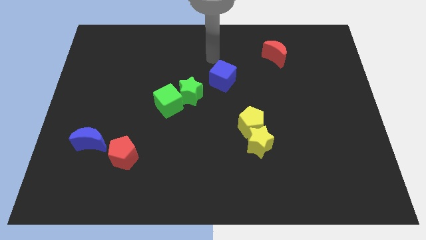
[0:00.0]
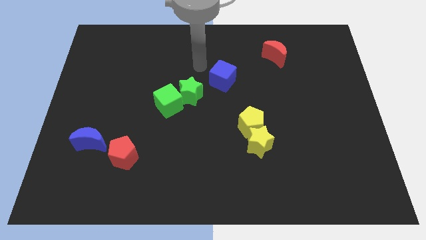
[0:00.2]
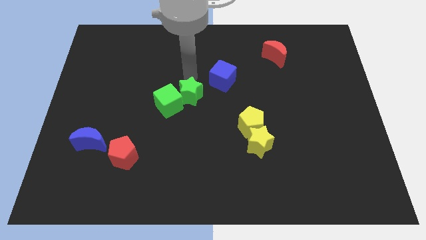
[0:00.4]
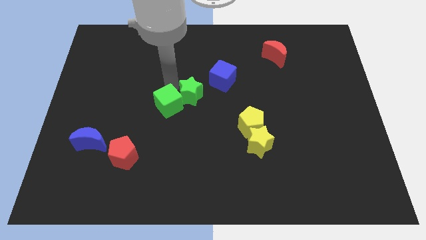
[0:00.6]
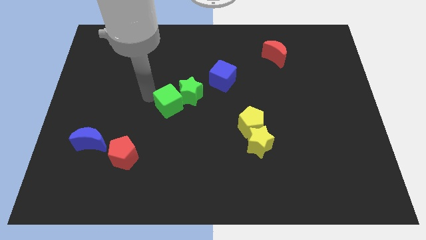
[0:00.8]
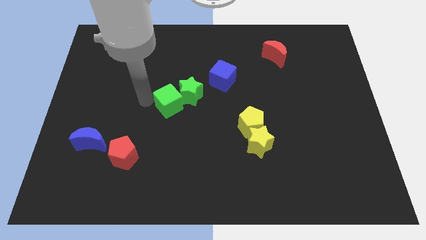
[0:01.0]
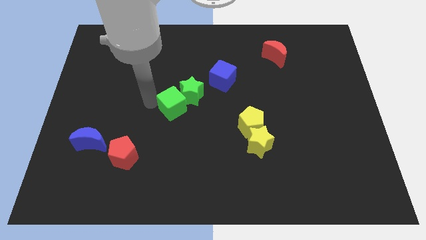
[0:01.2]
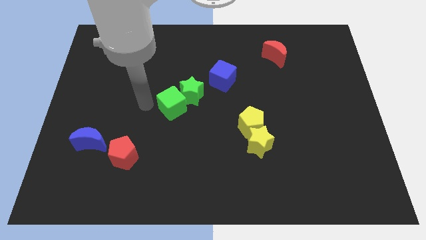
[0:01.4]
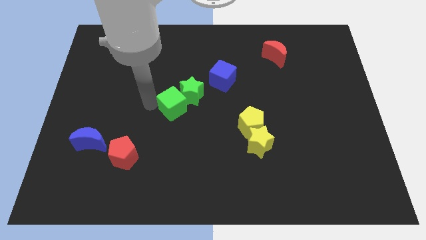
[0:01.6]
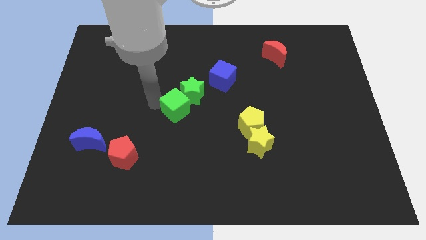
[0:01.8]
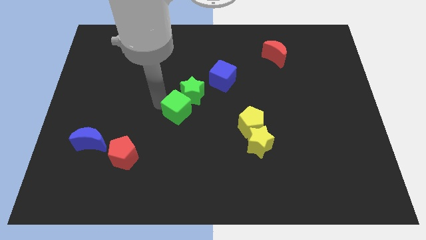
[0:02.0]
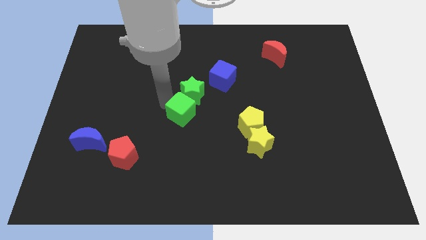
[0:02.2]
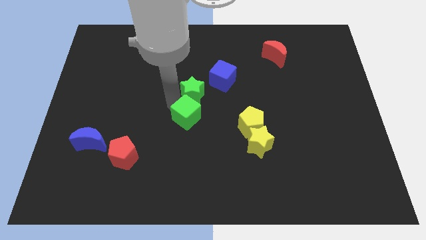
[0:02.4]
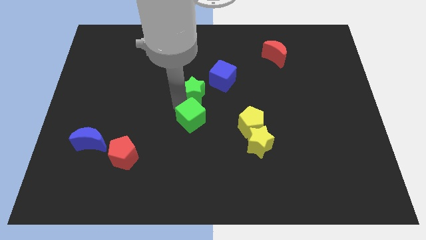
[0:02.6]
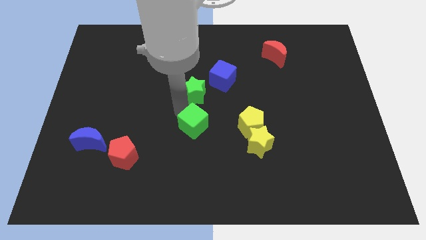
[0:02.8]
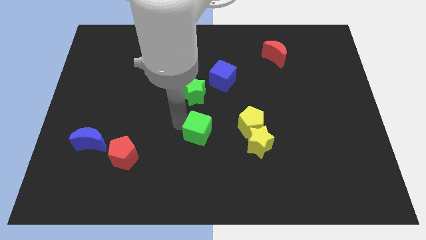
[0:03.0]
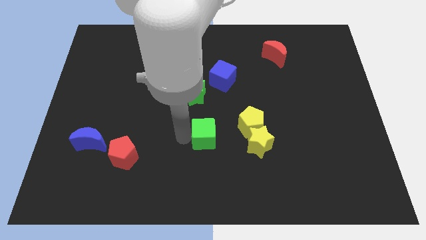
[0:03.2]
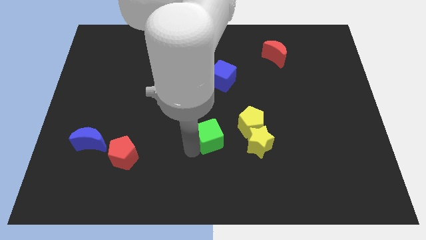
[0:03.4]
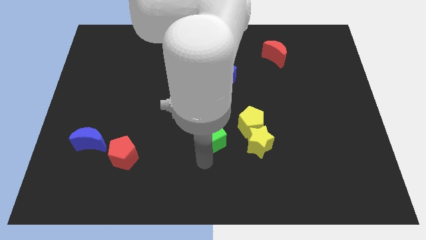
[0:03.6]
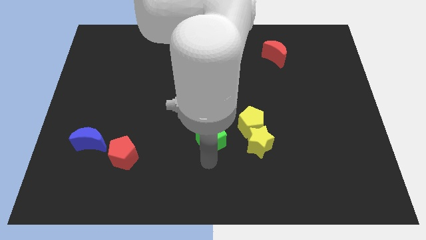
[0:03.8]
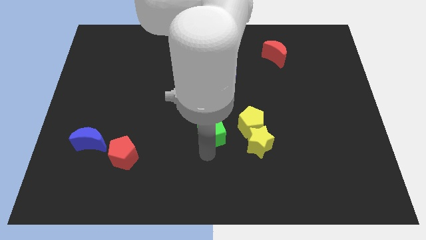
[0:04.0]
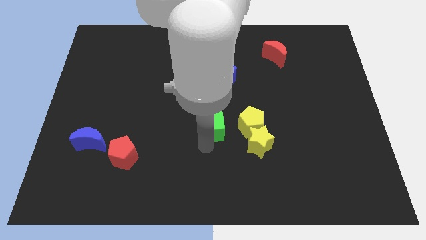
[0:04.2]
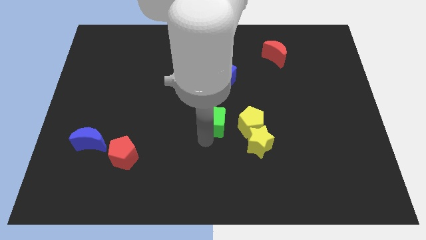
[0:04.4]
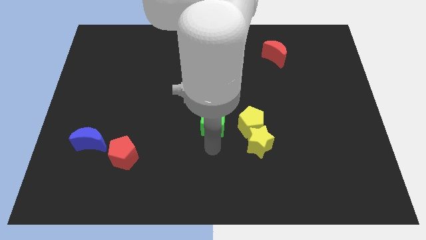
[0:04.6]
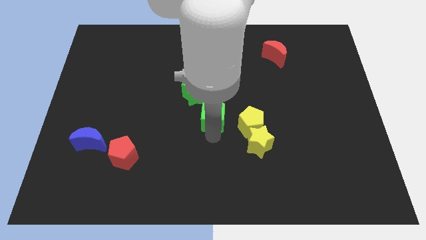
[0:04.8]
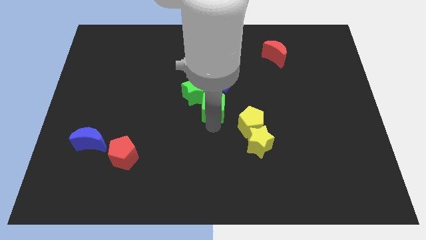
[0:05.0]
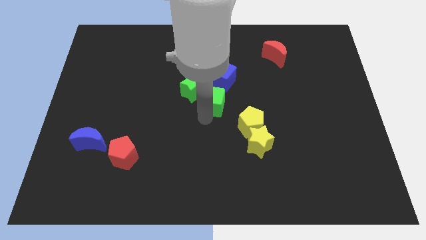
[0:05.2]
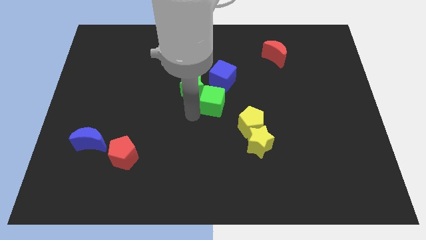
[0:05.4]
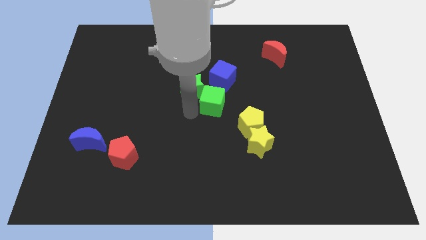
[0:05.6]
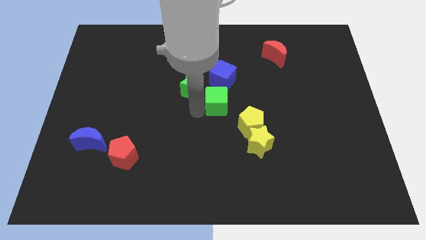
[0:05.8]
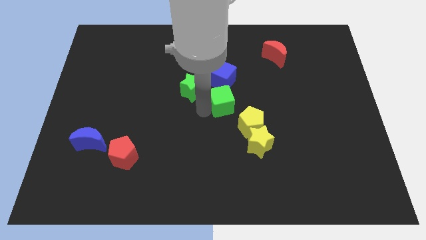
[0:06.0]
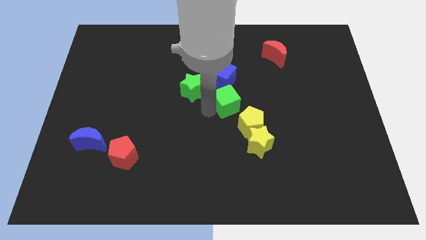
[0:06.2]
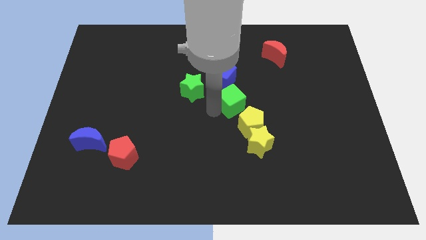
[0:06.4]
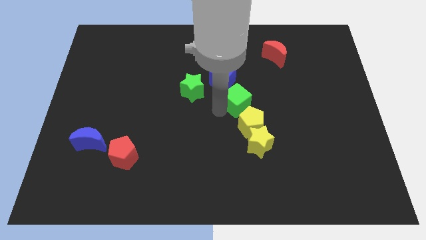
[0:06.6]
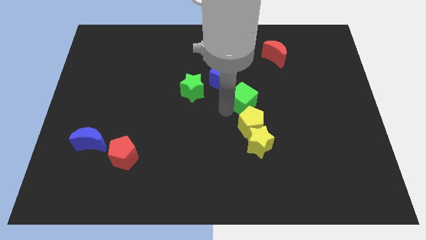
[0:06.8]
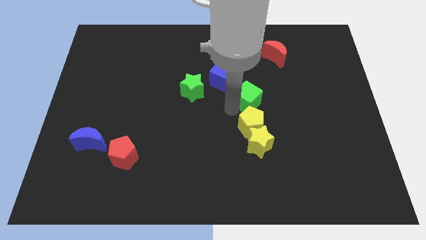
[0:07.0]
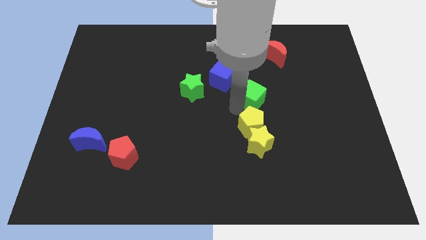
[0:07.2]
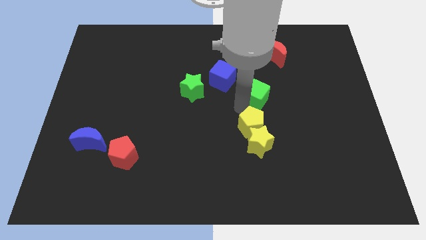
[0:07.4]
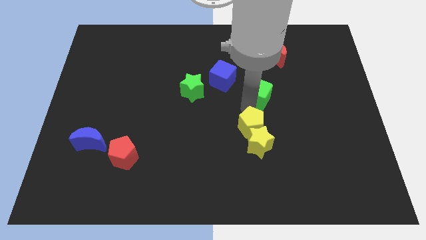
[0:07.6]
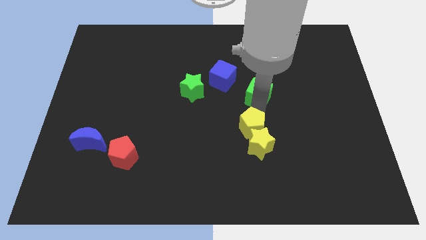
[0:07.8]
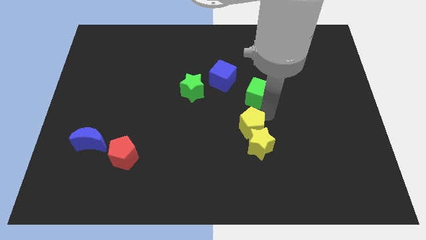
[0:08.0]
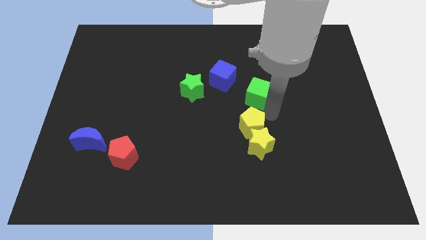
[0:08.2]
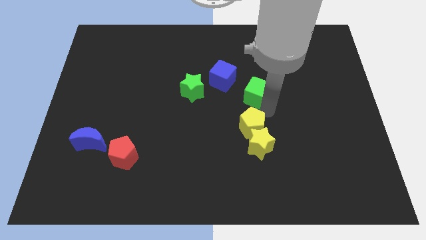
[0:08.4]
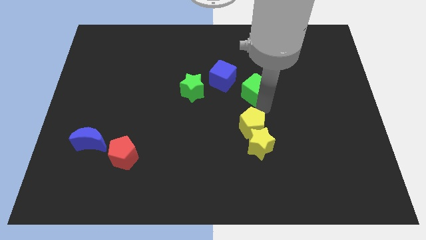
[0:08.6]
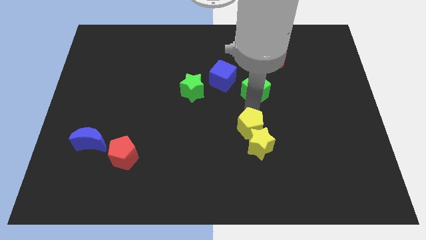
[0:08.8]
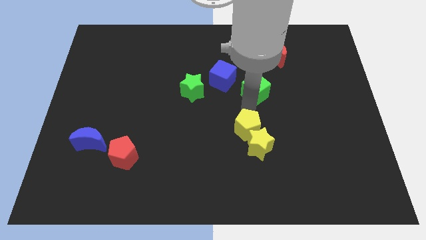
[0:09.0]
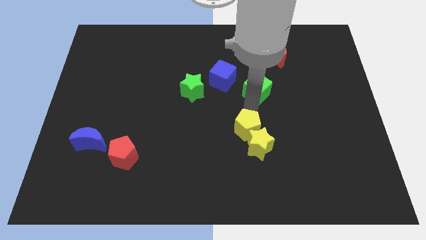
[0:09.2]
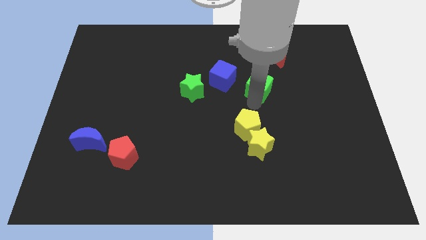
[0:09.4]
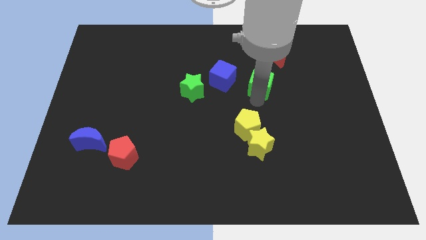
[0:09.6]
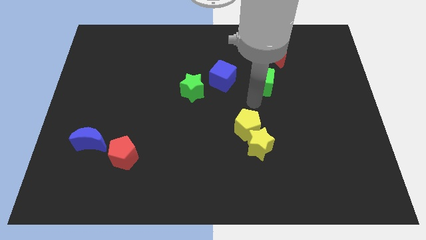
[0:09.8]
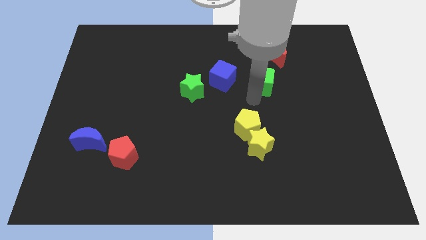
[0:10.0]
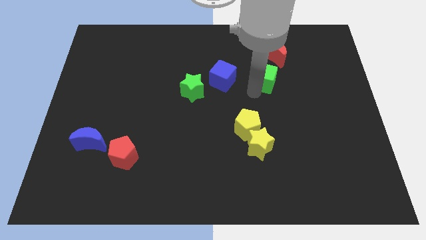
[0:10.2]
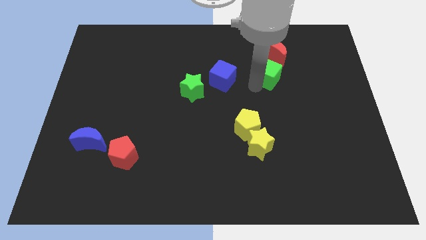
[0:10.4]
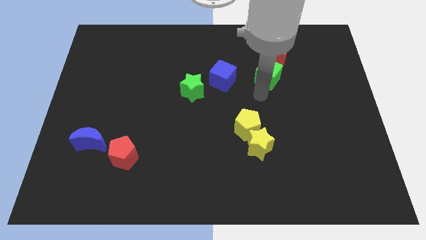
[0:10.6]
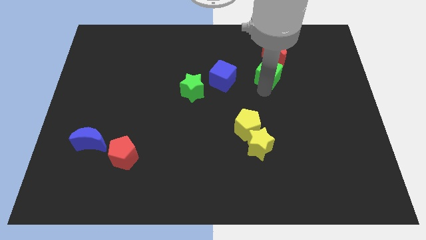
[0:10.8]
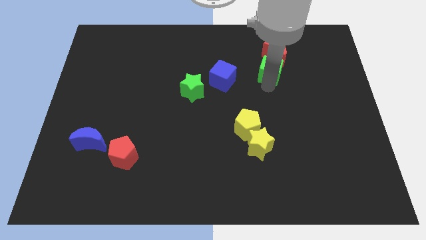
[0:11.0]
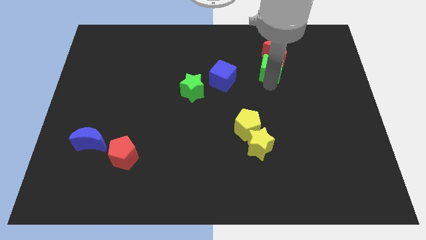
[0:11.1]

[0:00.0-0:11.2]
push the green cube close to the red moon
